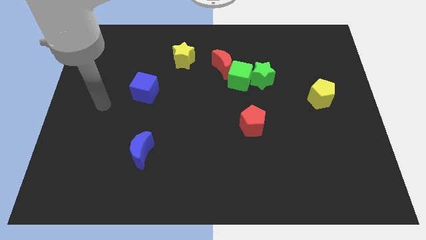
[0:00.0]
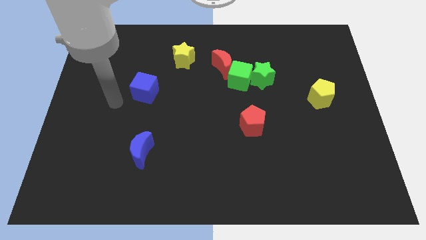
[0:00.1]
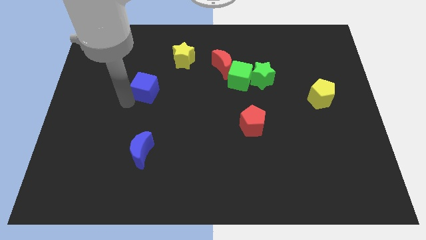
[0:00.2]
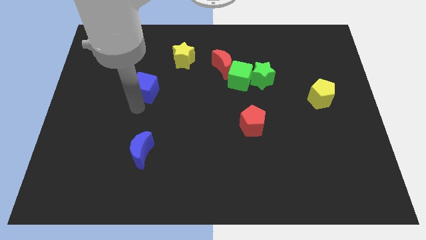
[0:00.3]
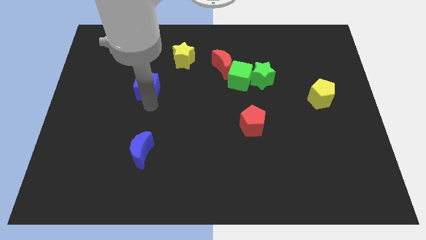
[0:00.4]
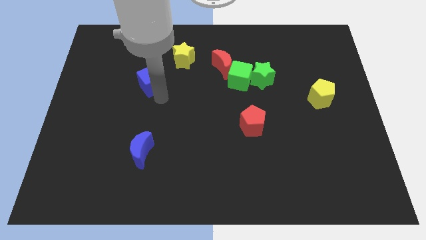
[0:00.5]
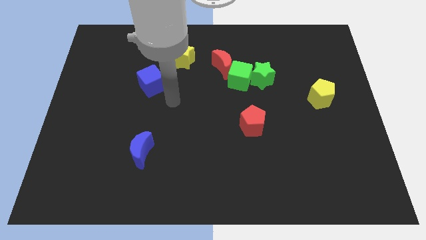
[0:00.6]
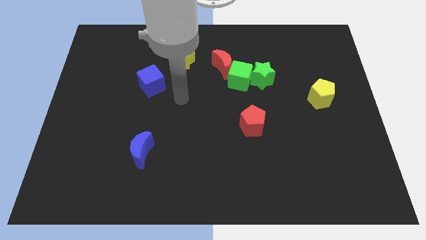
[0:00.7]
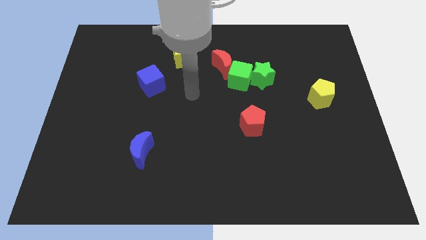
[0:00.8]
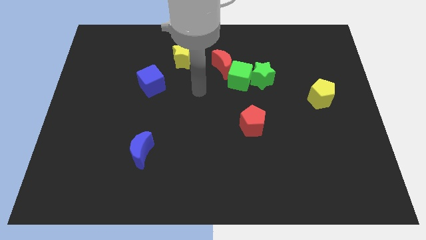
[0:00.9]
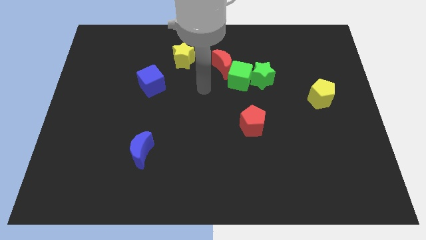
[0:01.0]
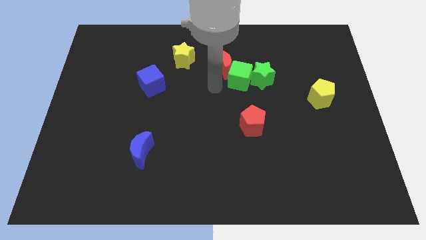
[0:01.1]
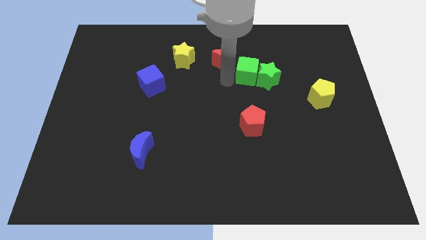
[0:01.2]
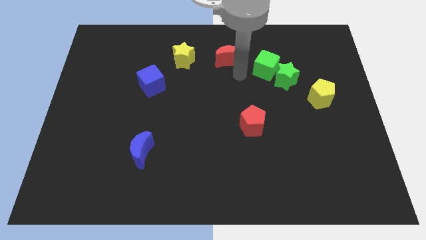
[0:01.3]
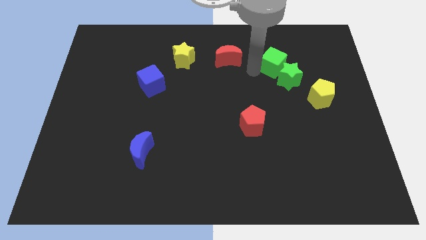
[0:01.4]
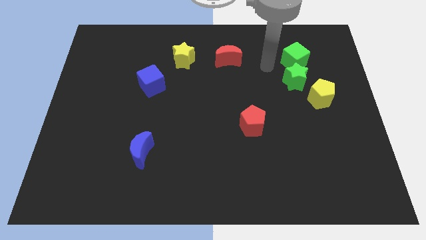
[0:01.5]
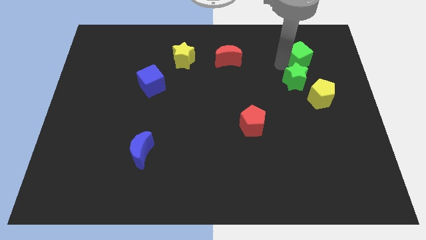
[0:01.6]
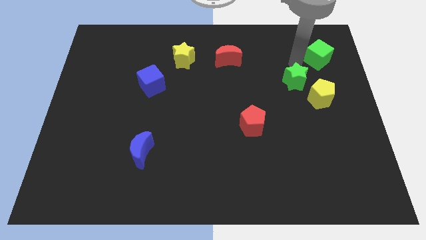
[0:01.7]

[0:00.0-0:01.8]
move the green star away from the green cube

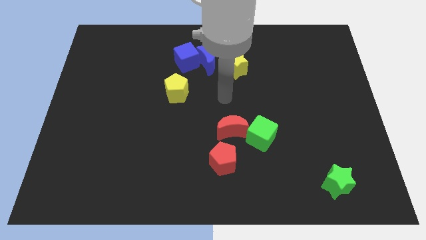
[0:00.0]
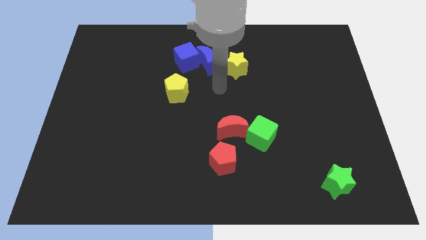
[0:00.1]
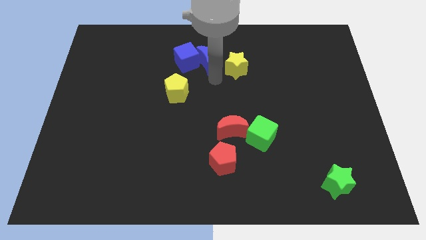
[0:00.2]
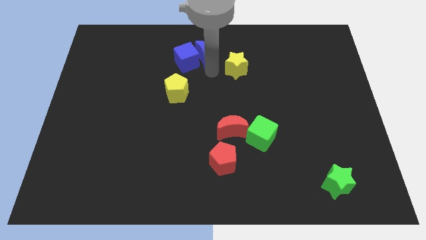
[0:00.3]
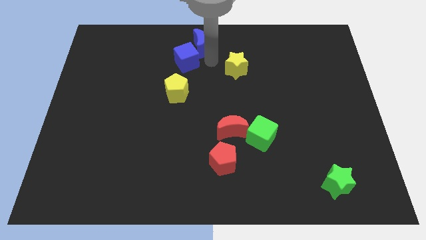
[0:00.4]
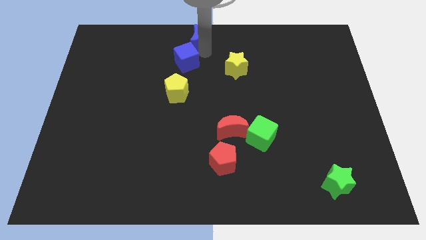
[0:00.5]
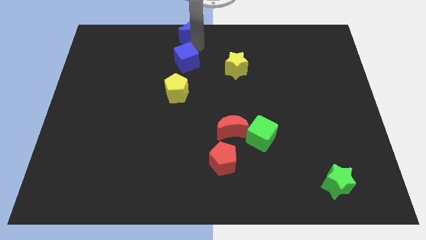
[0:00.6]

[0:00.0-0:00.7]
pull the blue cube apart from the blue moon

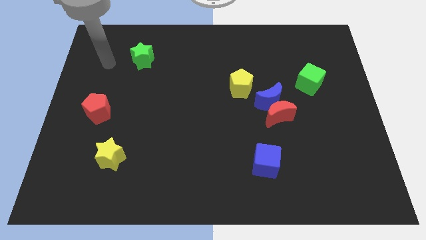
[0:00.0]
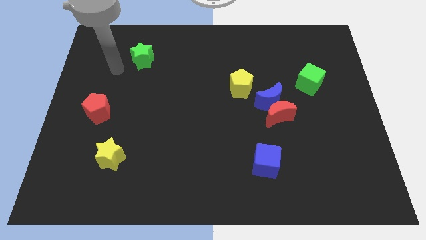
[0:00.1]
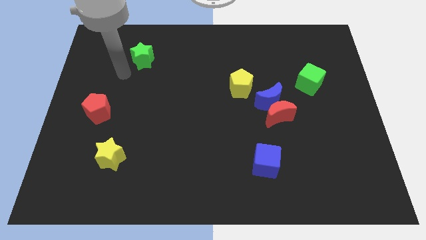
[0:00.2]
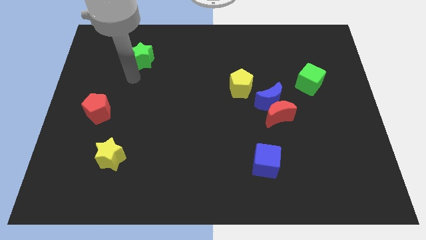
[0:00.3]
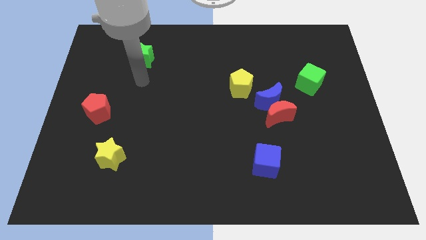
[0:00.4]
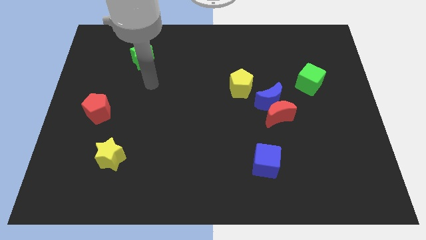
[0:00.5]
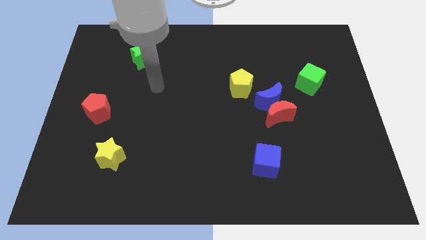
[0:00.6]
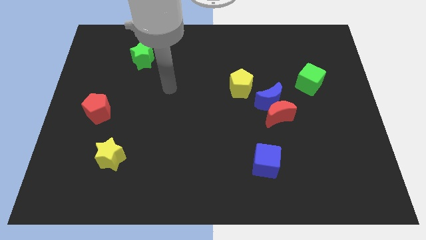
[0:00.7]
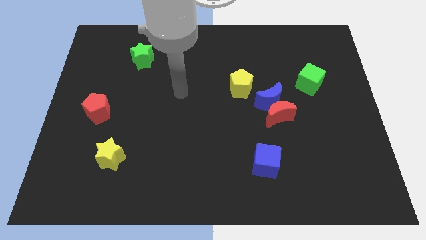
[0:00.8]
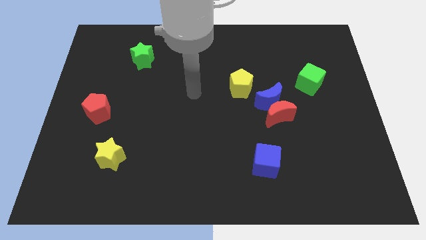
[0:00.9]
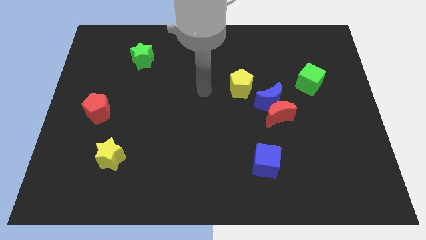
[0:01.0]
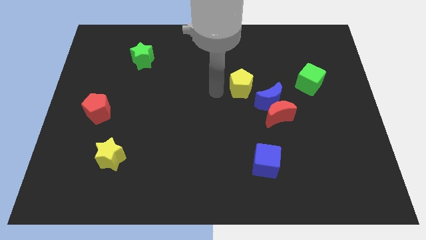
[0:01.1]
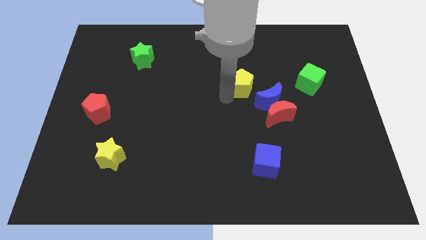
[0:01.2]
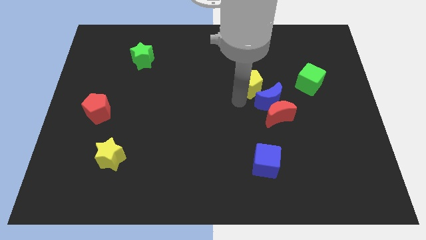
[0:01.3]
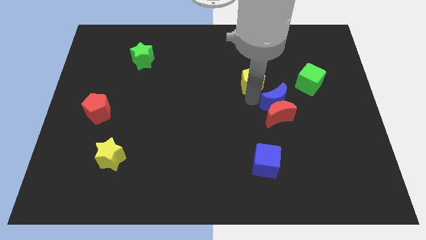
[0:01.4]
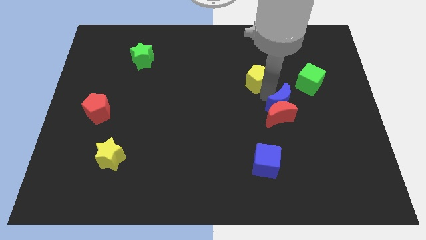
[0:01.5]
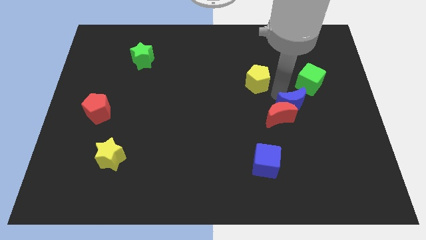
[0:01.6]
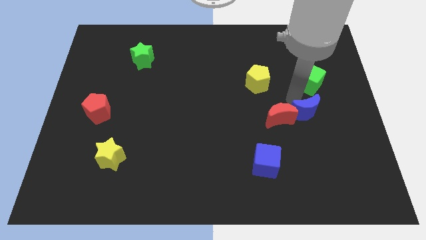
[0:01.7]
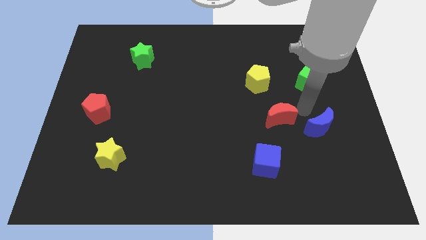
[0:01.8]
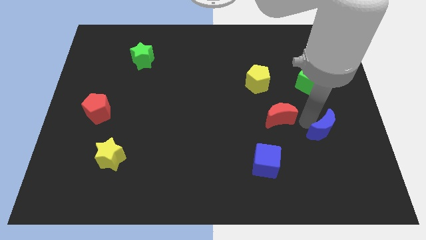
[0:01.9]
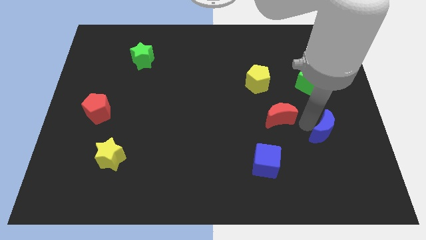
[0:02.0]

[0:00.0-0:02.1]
move the red moon away from the blue moon

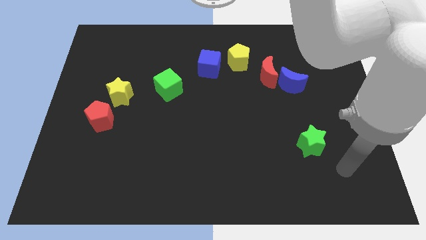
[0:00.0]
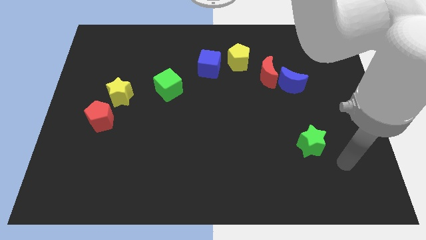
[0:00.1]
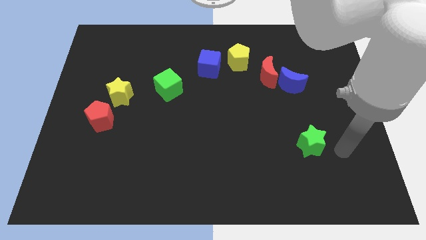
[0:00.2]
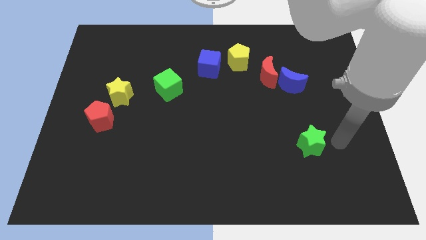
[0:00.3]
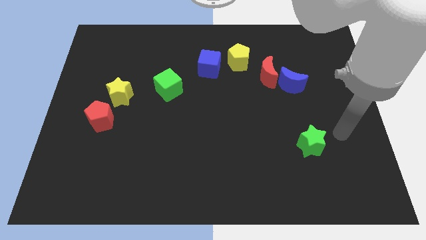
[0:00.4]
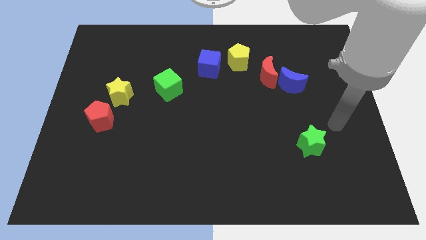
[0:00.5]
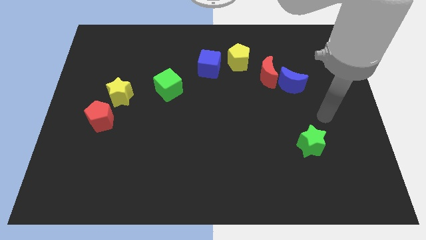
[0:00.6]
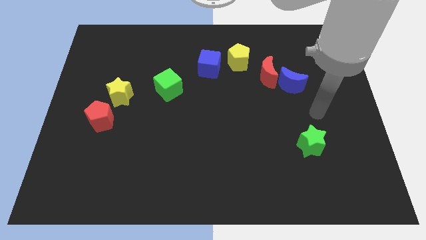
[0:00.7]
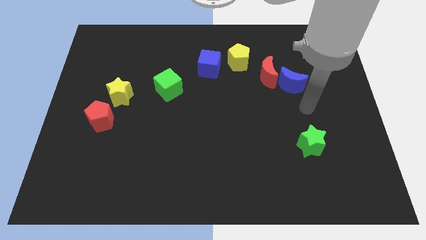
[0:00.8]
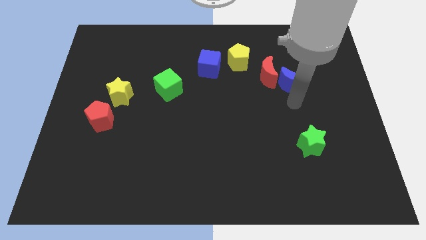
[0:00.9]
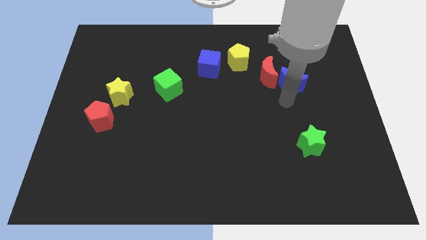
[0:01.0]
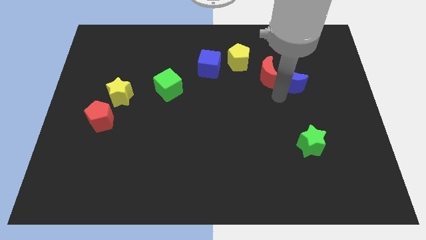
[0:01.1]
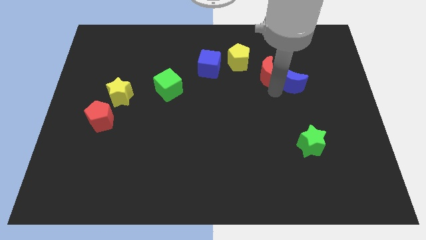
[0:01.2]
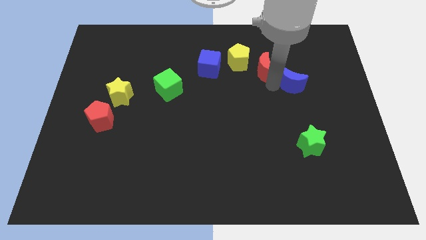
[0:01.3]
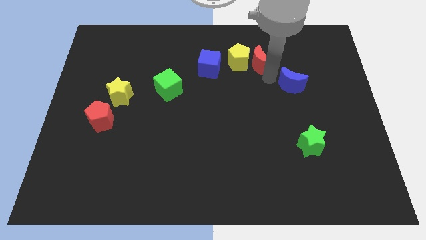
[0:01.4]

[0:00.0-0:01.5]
separate the blue moon from the red moon

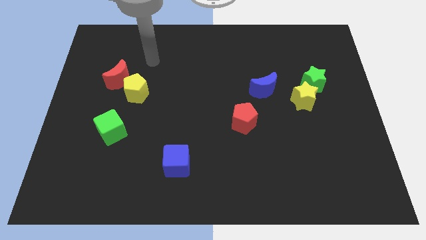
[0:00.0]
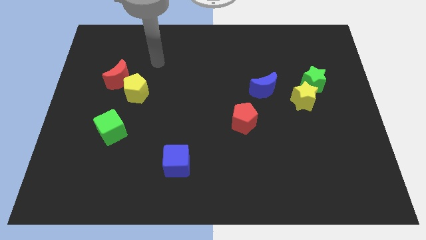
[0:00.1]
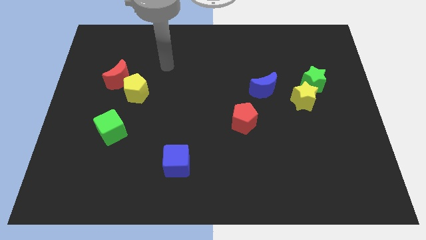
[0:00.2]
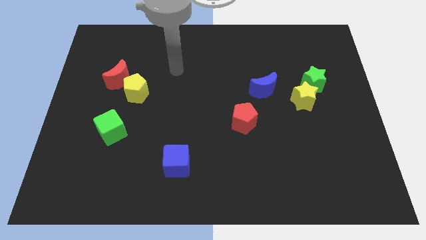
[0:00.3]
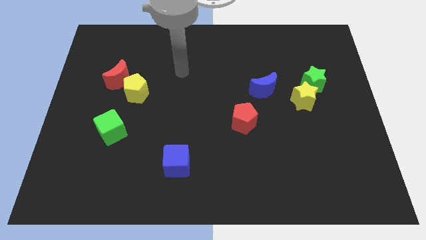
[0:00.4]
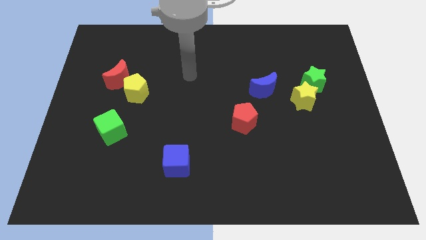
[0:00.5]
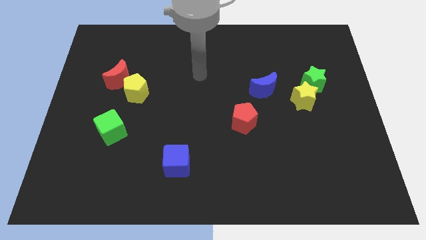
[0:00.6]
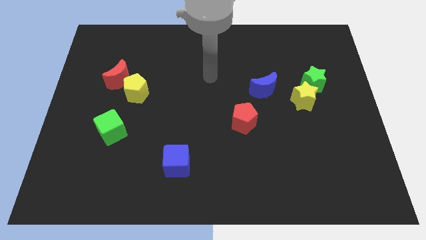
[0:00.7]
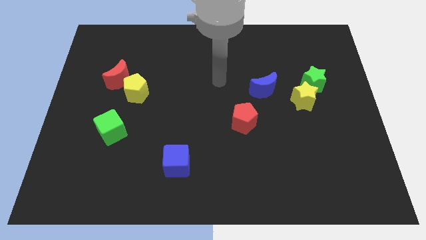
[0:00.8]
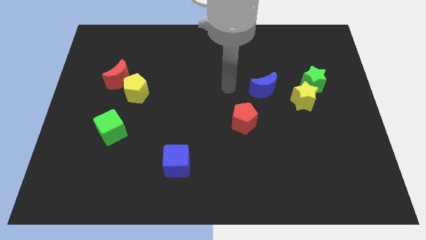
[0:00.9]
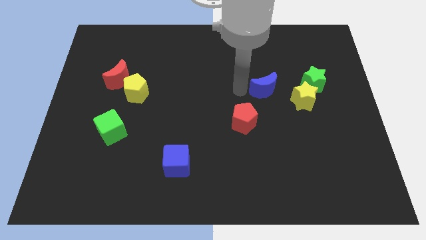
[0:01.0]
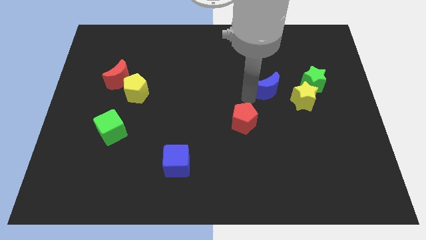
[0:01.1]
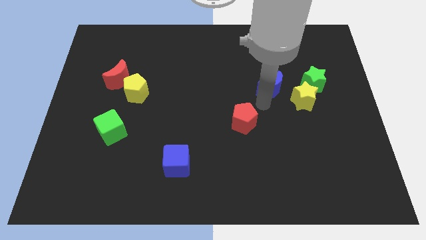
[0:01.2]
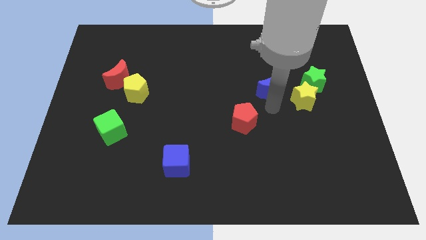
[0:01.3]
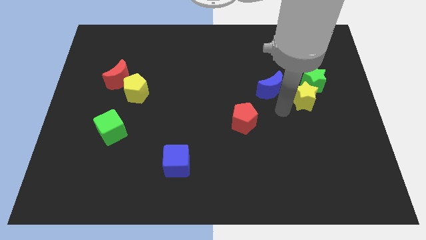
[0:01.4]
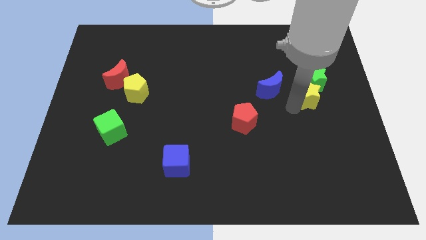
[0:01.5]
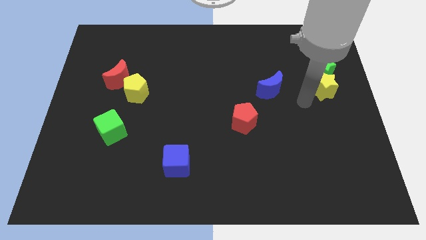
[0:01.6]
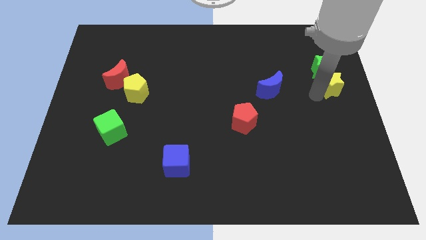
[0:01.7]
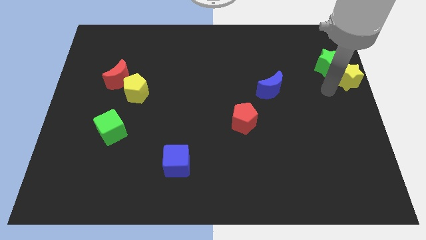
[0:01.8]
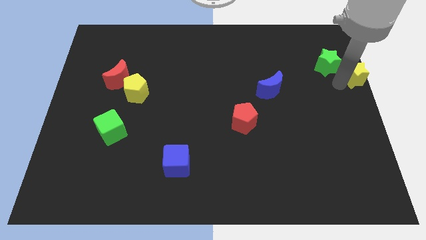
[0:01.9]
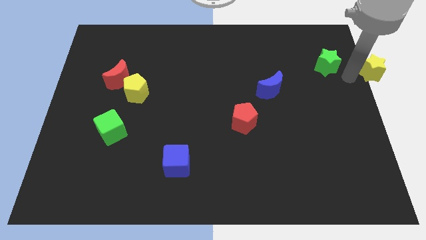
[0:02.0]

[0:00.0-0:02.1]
pull the green star apart from the yellow star

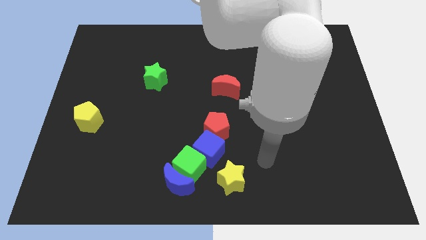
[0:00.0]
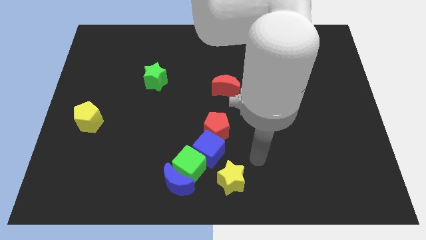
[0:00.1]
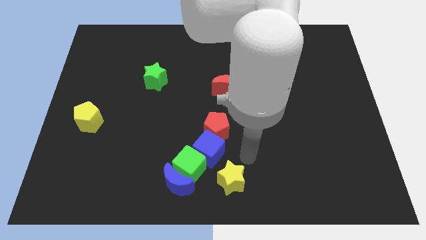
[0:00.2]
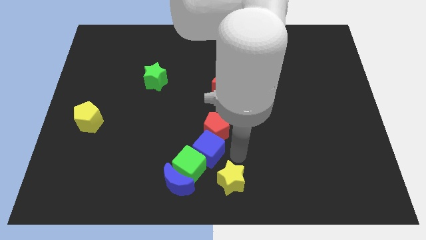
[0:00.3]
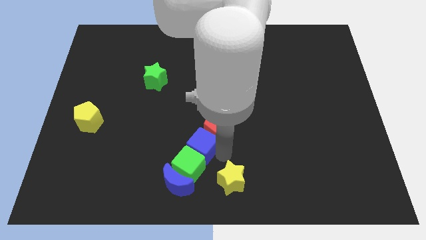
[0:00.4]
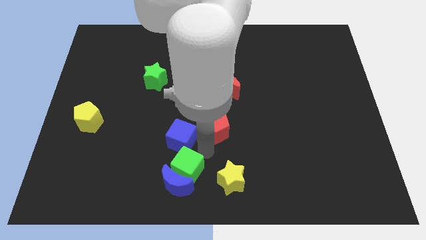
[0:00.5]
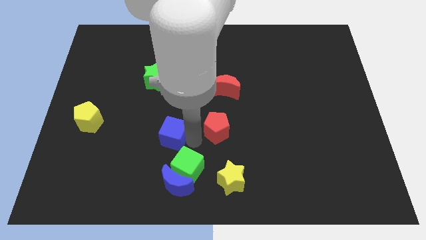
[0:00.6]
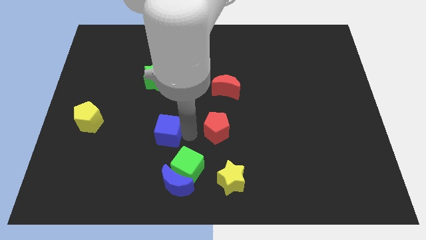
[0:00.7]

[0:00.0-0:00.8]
move the red pentagon away from the blue cube

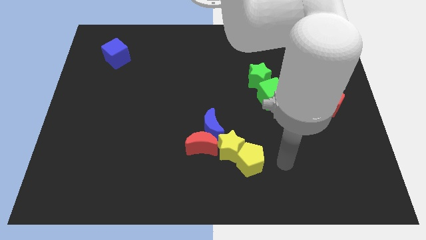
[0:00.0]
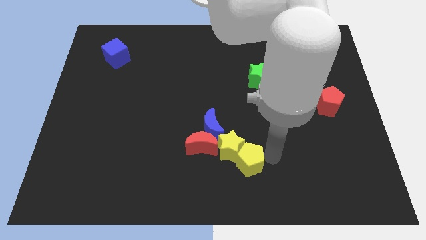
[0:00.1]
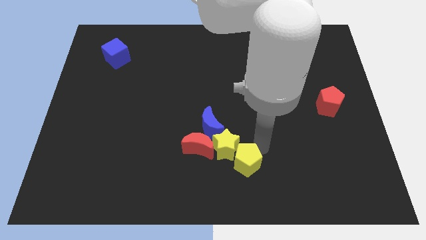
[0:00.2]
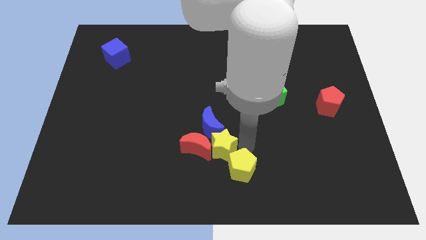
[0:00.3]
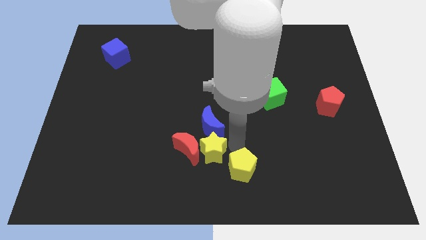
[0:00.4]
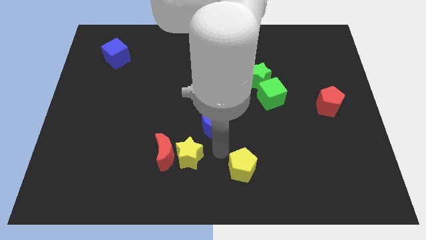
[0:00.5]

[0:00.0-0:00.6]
separate the yellow pentagon from the yellow star
